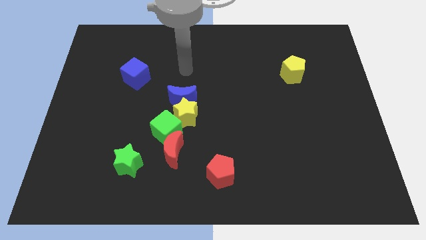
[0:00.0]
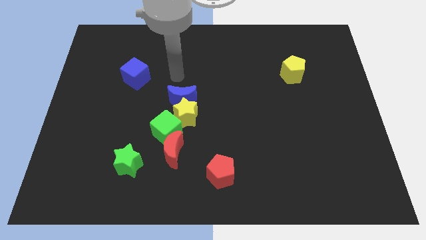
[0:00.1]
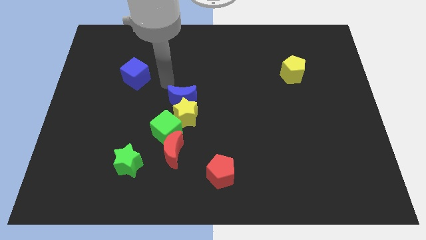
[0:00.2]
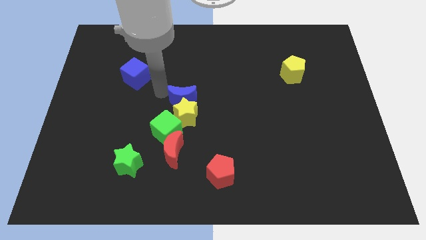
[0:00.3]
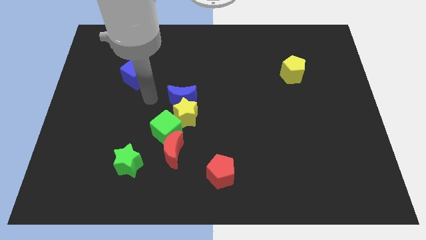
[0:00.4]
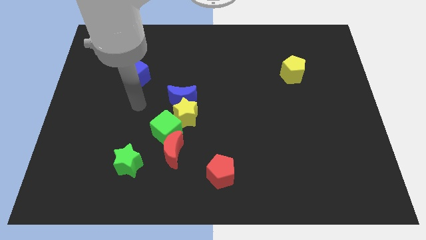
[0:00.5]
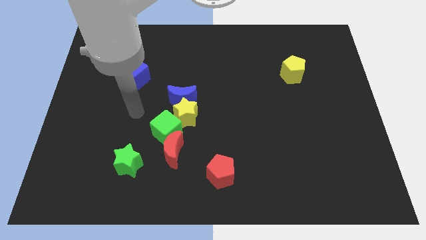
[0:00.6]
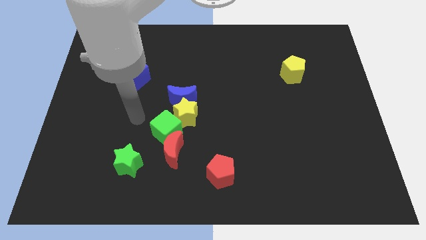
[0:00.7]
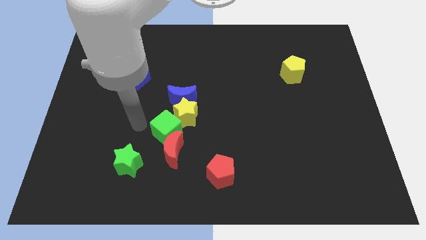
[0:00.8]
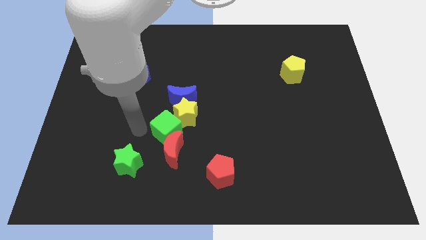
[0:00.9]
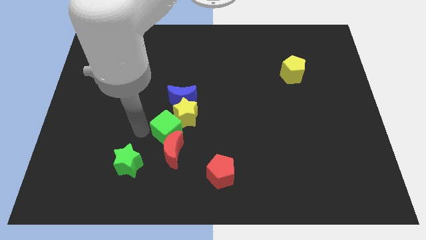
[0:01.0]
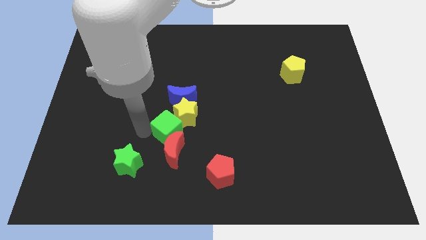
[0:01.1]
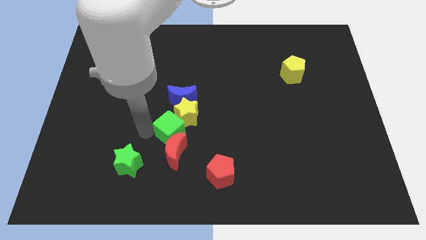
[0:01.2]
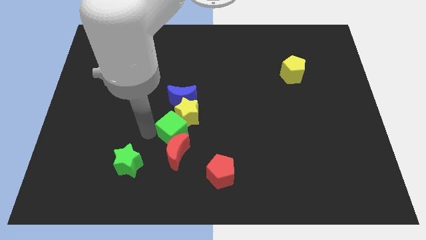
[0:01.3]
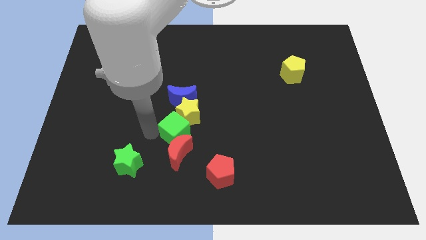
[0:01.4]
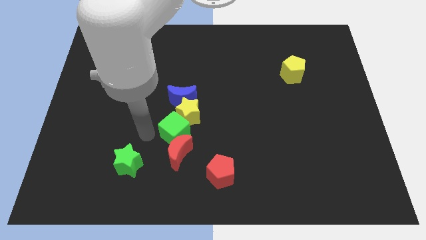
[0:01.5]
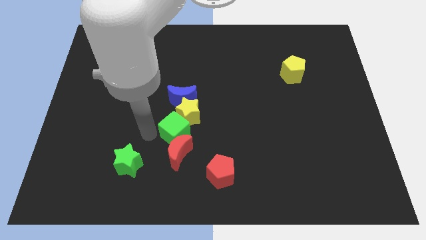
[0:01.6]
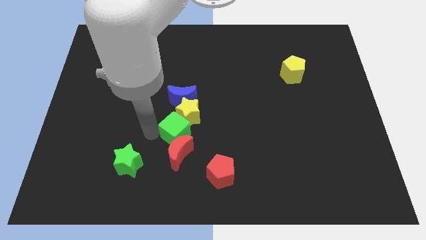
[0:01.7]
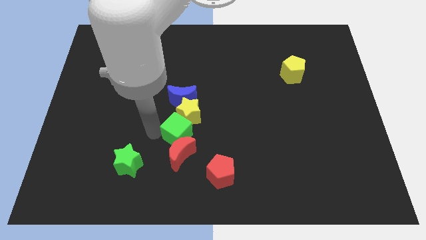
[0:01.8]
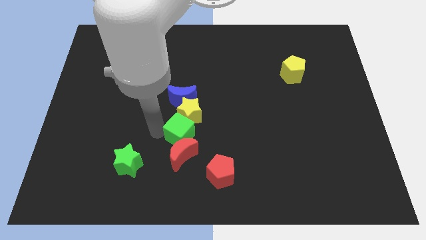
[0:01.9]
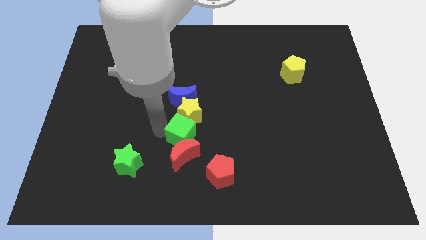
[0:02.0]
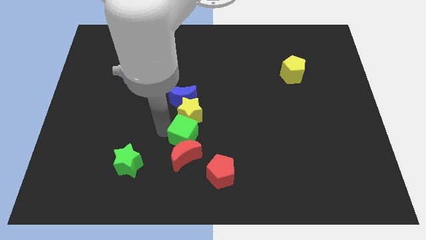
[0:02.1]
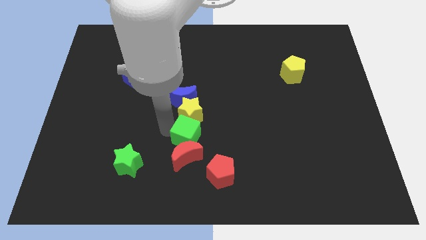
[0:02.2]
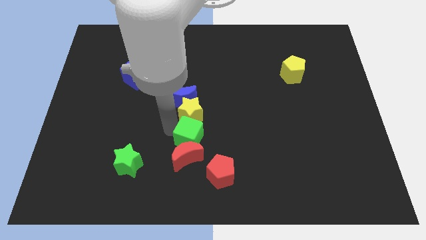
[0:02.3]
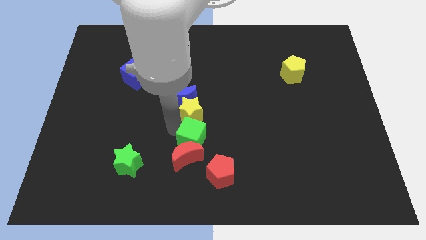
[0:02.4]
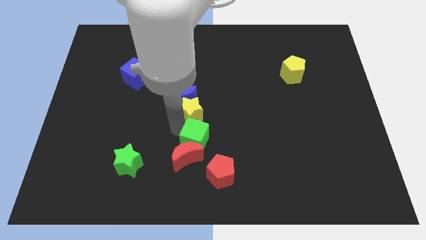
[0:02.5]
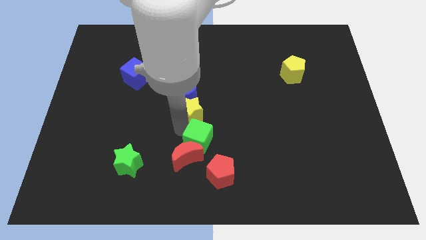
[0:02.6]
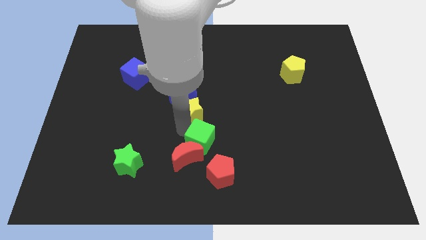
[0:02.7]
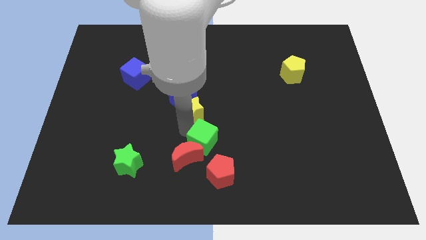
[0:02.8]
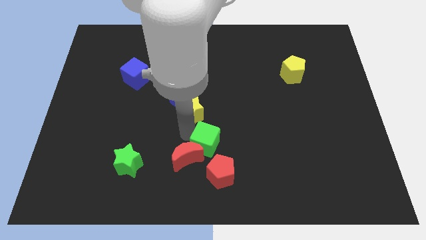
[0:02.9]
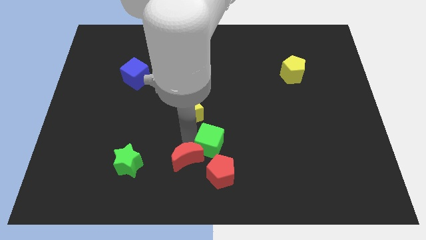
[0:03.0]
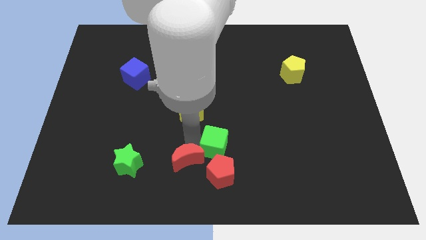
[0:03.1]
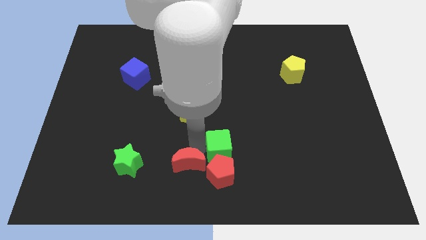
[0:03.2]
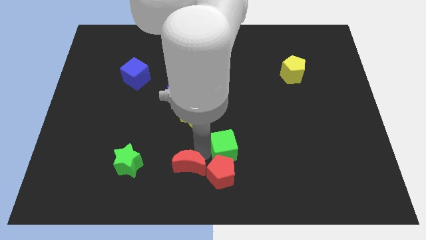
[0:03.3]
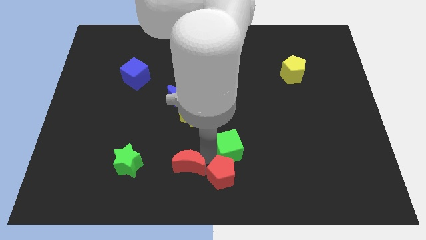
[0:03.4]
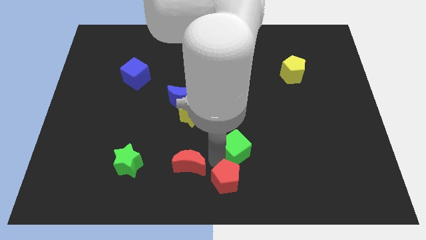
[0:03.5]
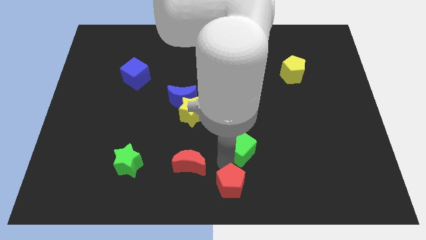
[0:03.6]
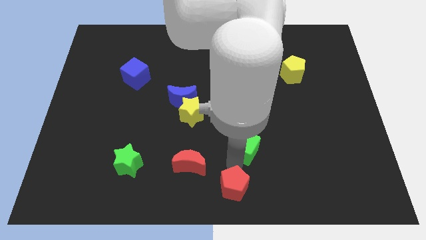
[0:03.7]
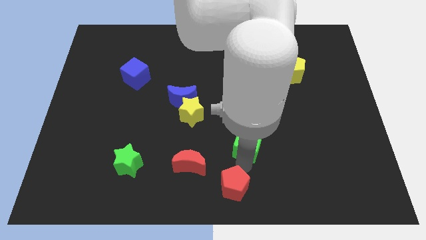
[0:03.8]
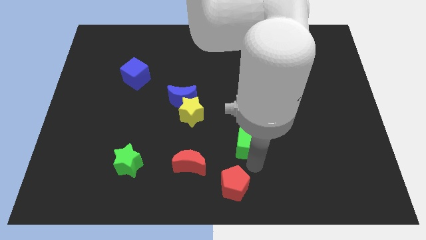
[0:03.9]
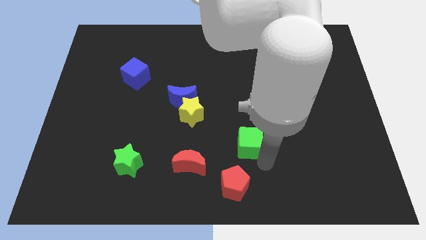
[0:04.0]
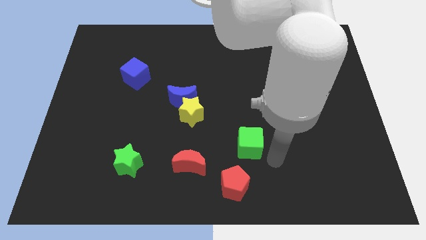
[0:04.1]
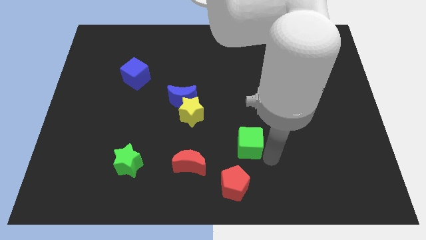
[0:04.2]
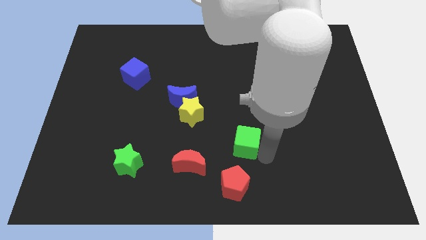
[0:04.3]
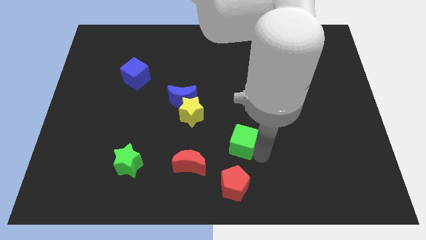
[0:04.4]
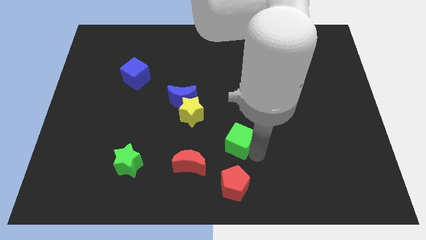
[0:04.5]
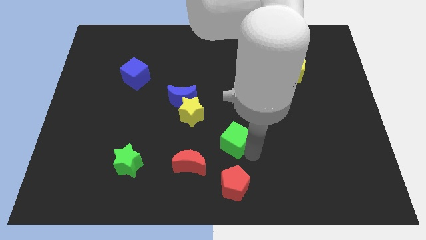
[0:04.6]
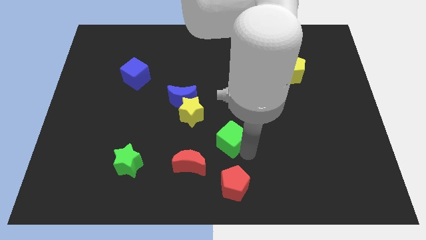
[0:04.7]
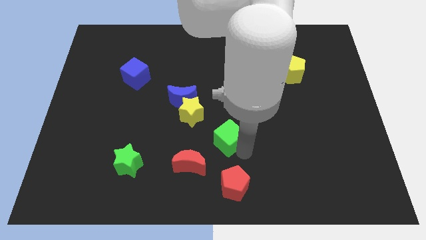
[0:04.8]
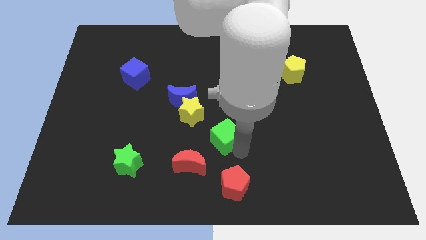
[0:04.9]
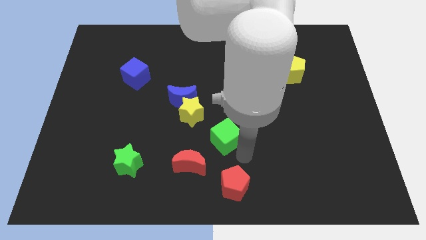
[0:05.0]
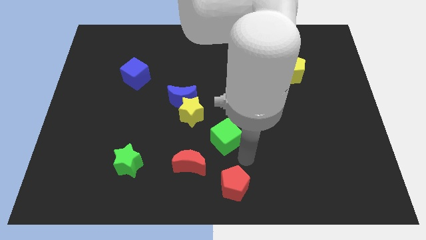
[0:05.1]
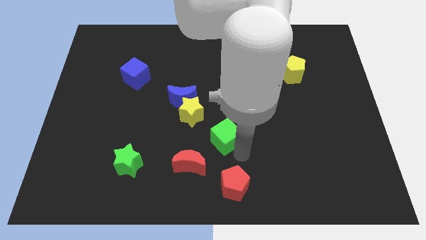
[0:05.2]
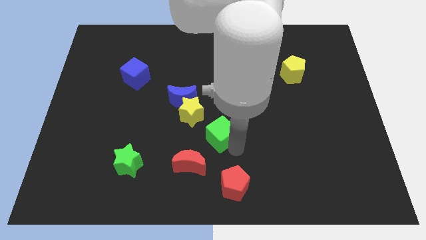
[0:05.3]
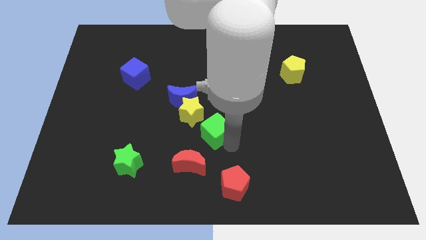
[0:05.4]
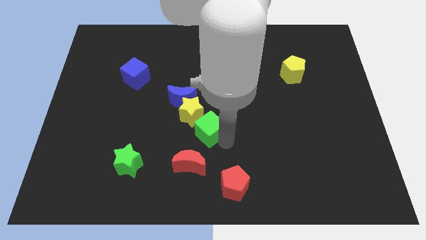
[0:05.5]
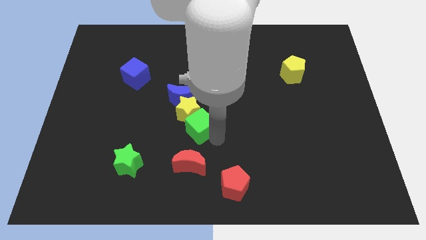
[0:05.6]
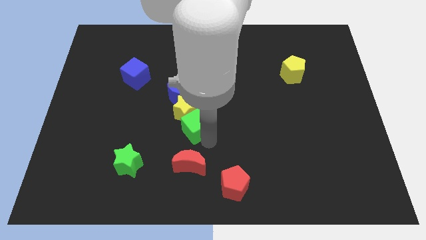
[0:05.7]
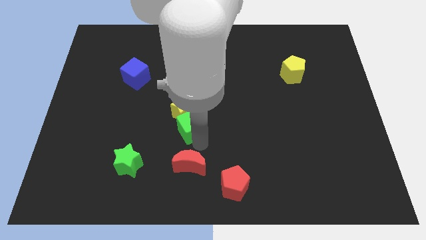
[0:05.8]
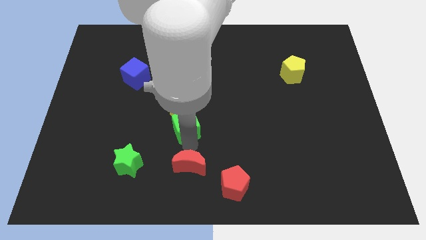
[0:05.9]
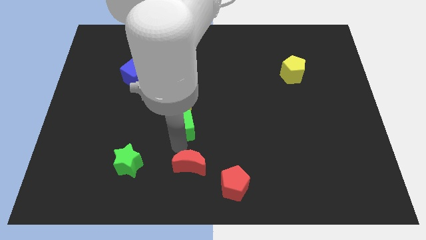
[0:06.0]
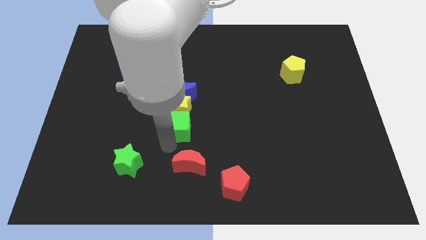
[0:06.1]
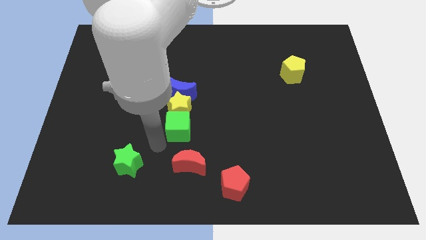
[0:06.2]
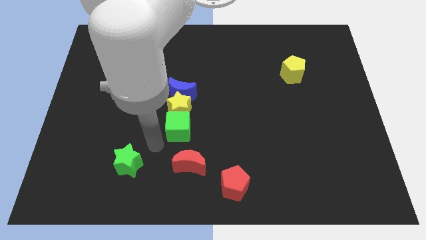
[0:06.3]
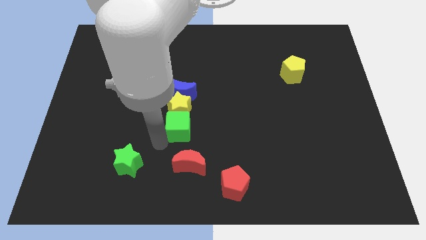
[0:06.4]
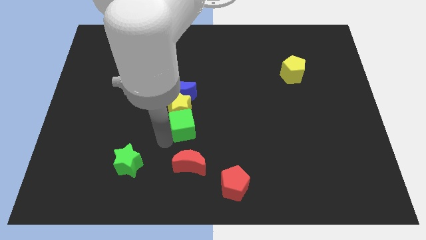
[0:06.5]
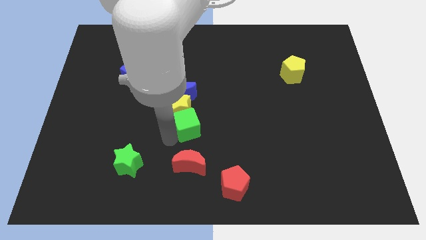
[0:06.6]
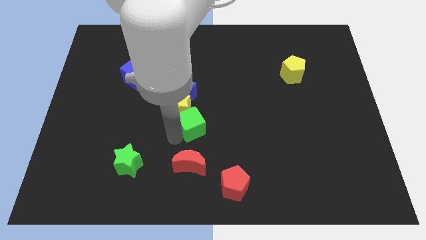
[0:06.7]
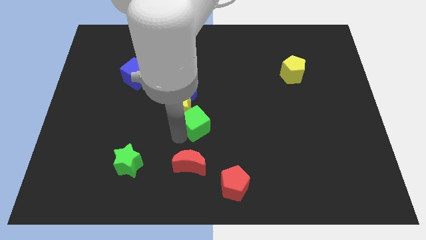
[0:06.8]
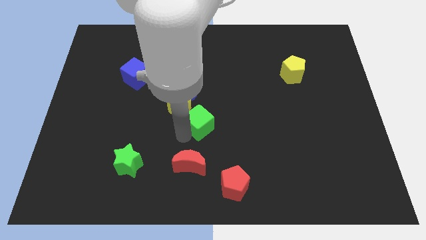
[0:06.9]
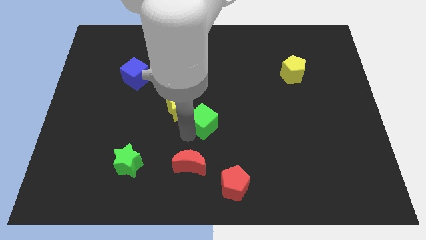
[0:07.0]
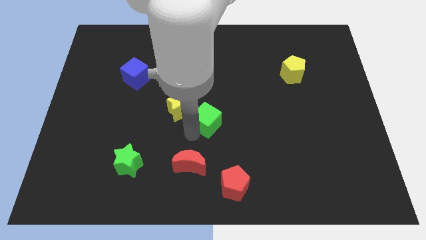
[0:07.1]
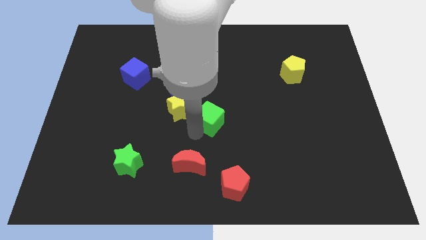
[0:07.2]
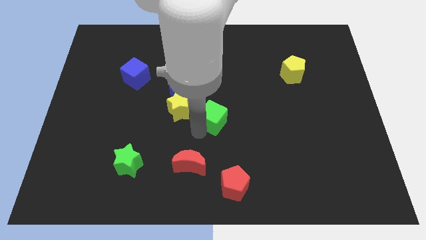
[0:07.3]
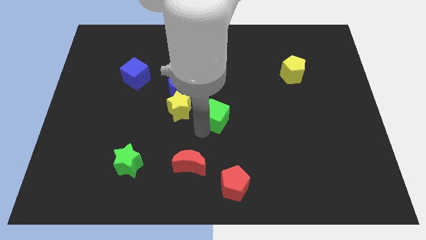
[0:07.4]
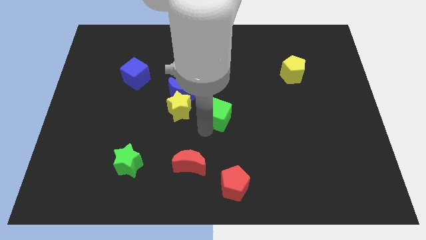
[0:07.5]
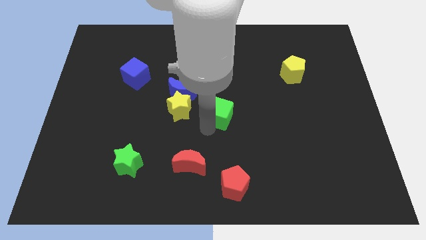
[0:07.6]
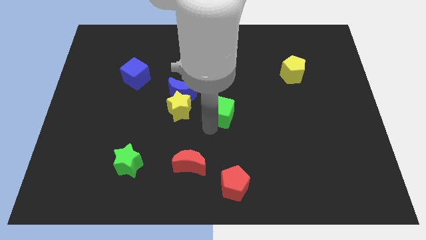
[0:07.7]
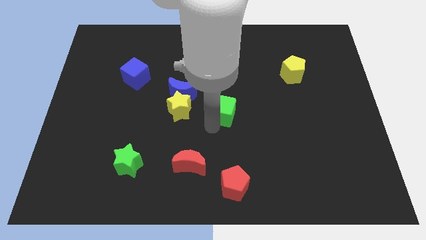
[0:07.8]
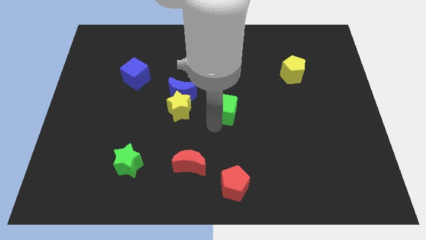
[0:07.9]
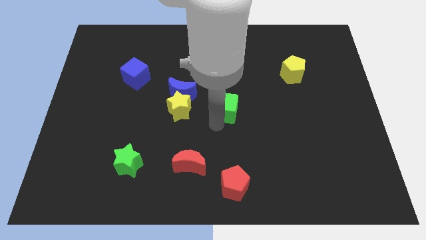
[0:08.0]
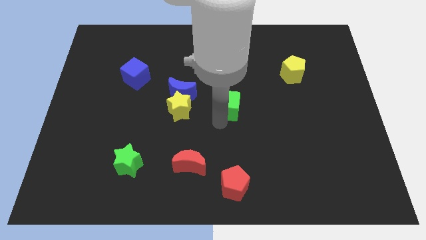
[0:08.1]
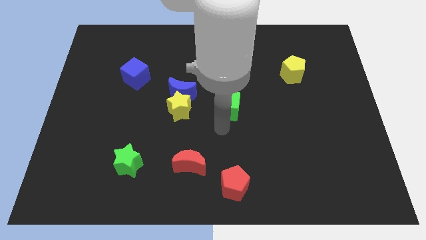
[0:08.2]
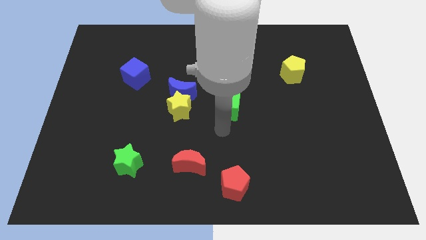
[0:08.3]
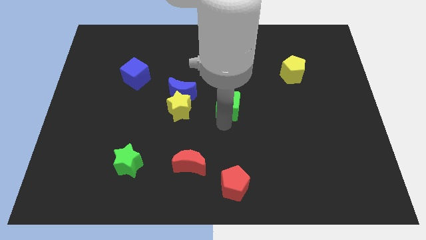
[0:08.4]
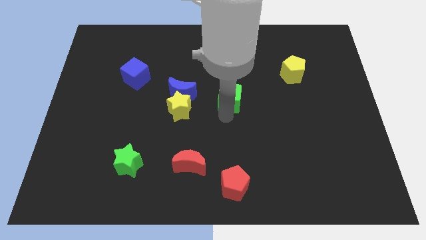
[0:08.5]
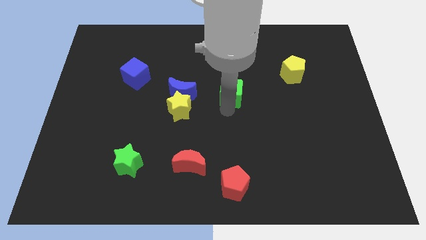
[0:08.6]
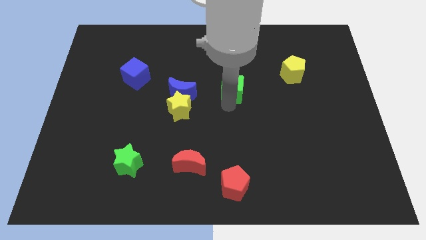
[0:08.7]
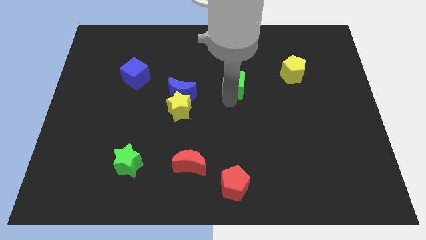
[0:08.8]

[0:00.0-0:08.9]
push the green cube up and to the right

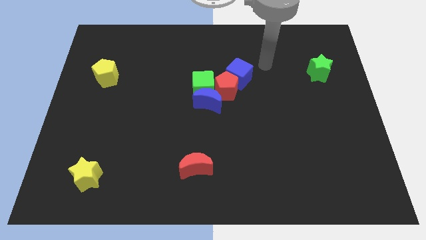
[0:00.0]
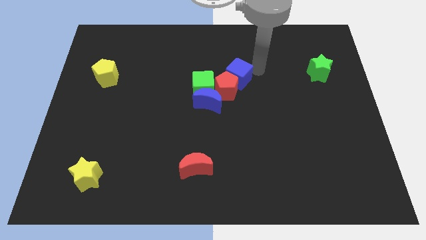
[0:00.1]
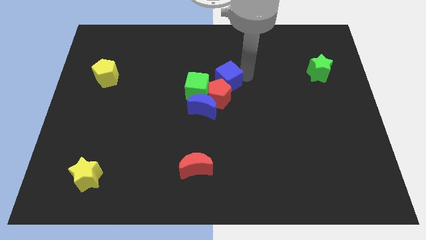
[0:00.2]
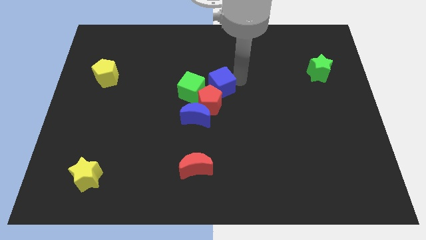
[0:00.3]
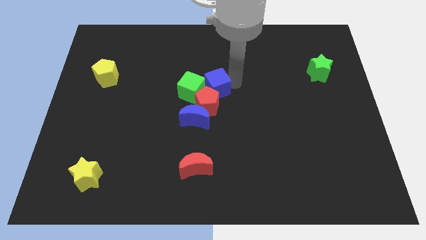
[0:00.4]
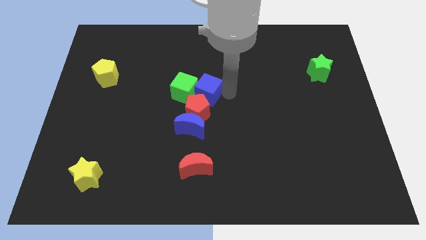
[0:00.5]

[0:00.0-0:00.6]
slightly push the blue moon downwards and then to the left
